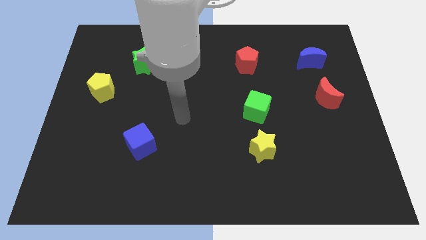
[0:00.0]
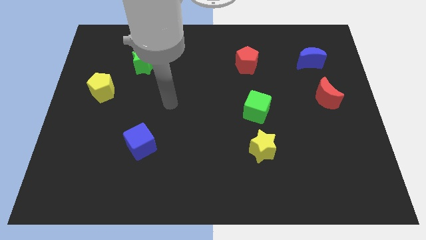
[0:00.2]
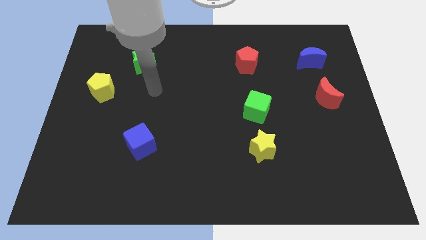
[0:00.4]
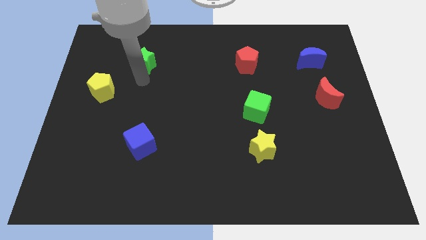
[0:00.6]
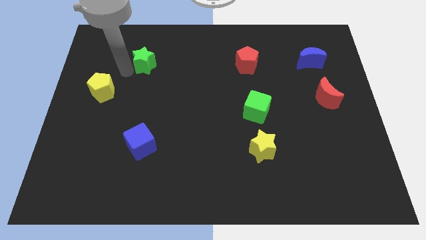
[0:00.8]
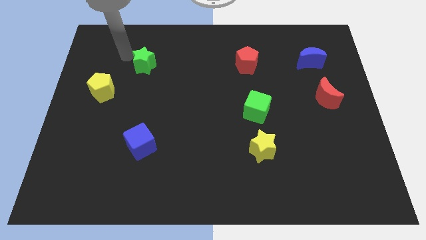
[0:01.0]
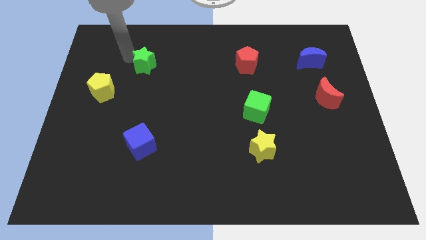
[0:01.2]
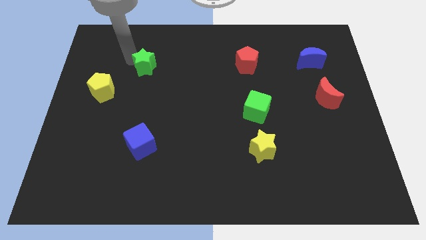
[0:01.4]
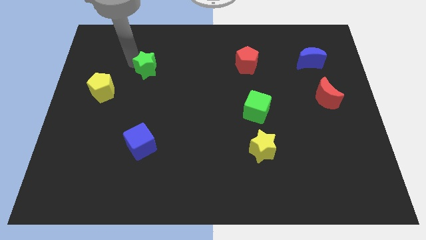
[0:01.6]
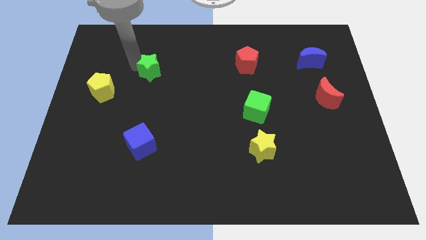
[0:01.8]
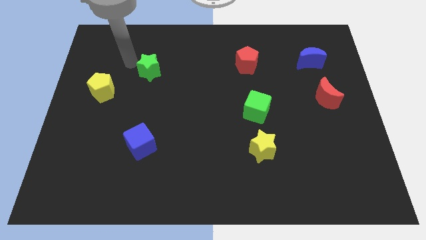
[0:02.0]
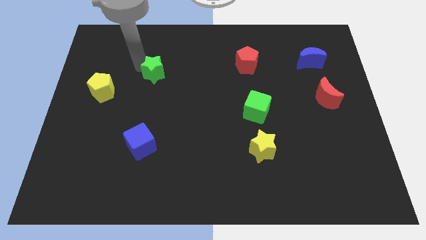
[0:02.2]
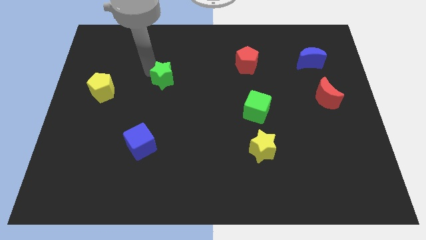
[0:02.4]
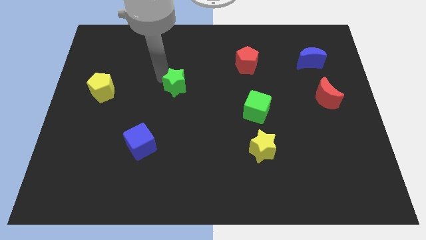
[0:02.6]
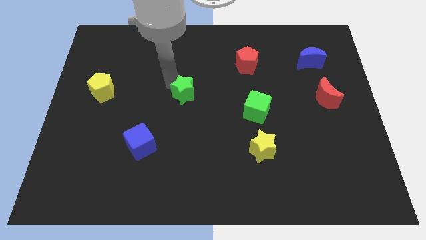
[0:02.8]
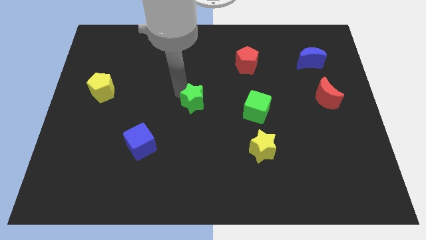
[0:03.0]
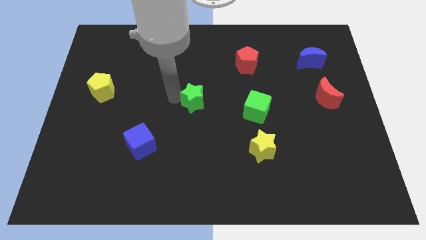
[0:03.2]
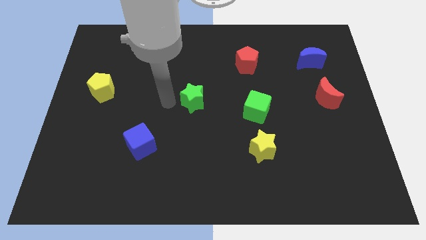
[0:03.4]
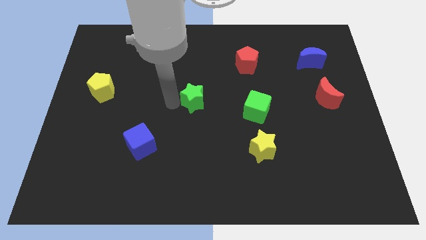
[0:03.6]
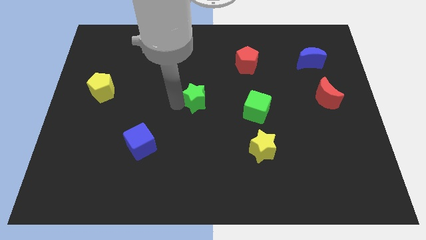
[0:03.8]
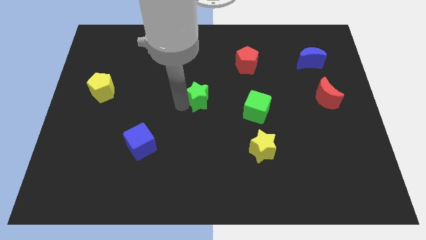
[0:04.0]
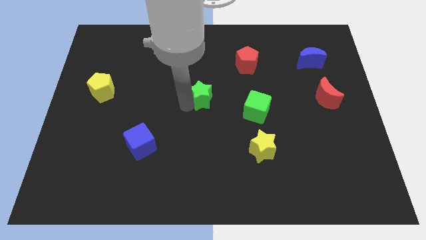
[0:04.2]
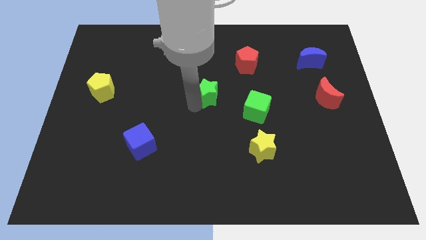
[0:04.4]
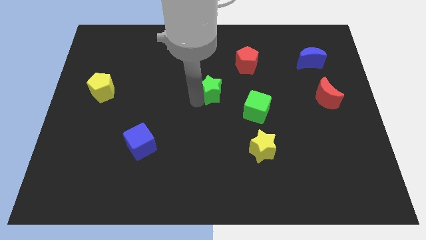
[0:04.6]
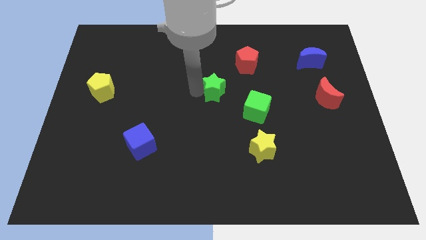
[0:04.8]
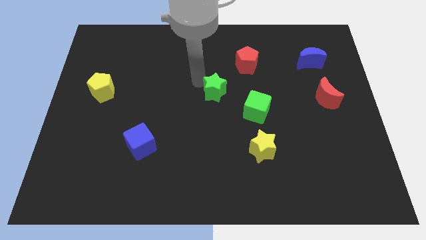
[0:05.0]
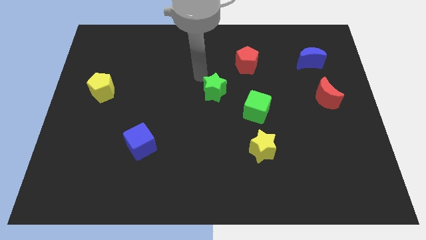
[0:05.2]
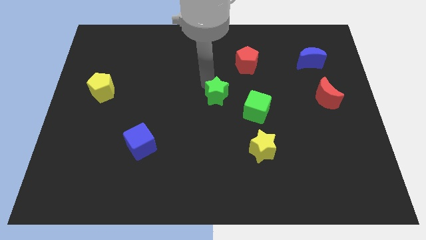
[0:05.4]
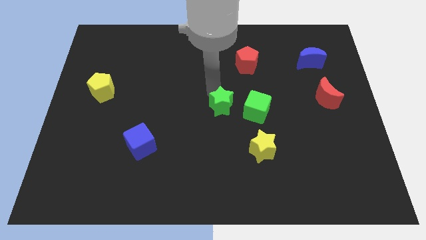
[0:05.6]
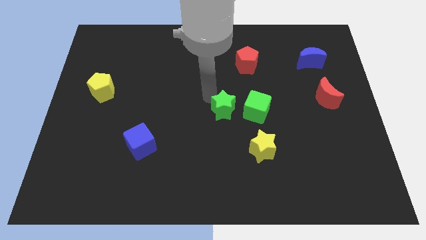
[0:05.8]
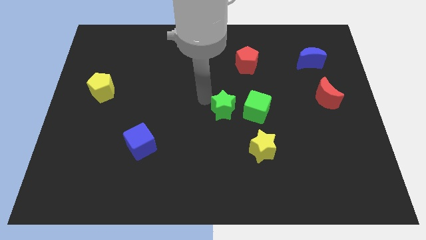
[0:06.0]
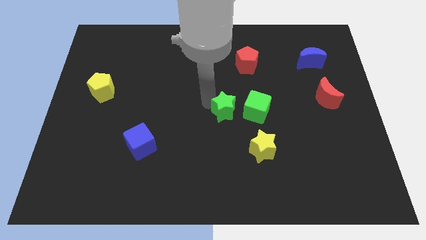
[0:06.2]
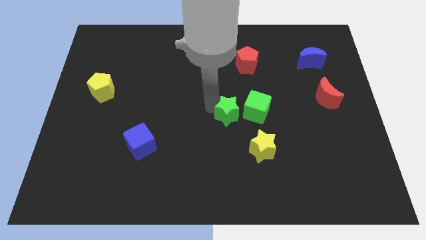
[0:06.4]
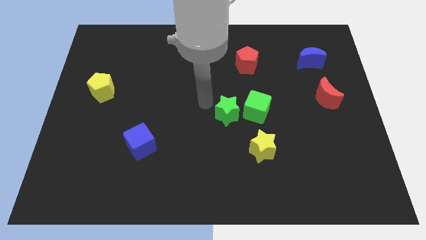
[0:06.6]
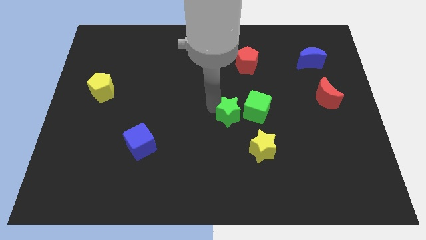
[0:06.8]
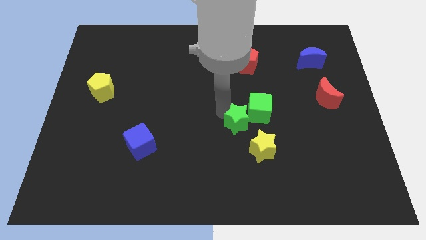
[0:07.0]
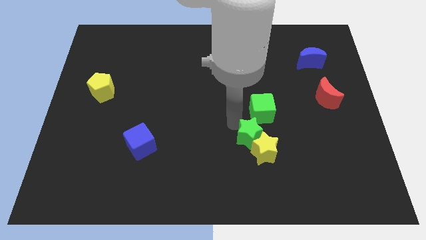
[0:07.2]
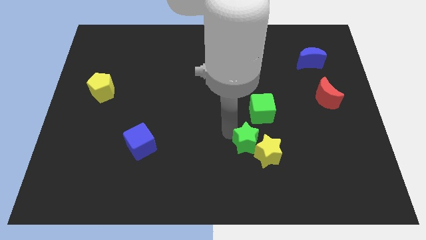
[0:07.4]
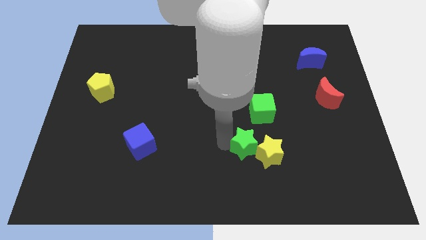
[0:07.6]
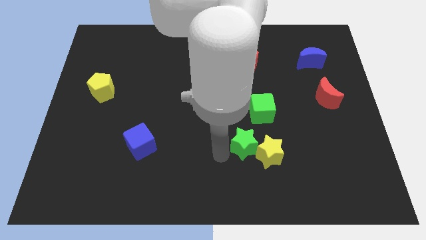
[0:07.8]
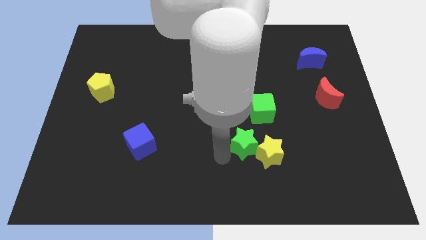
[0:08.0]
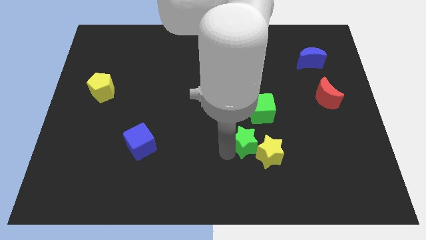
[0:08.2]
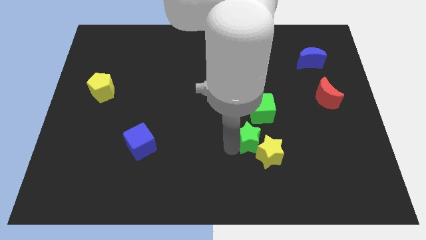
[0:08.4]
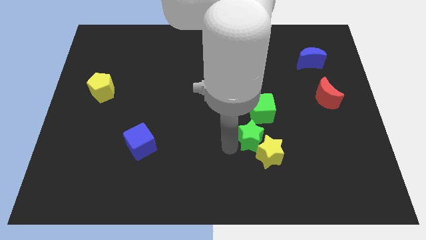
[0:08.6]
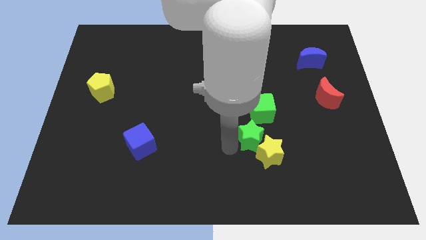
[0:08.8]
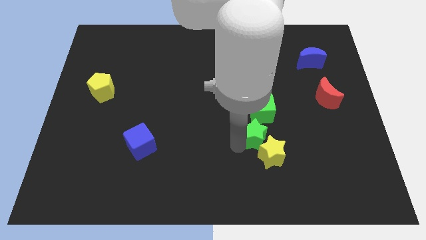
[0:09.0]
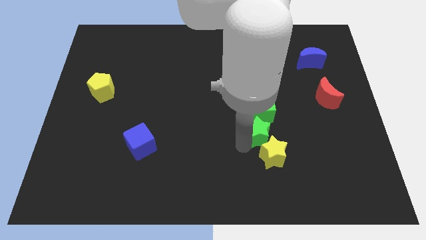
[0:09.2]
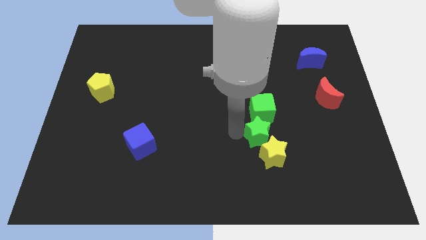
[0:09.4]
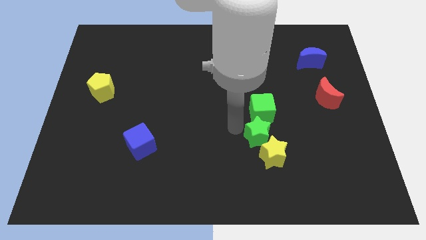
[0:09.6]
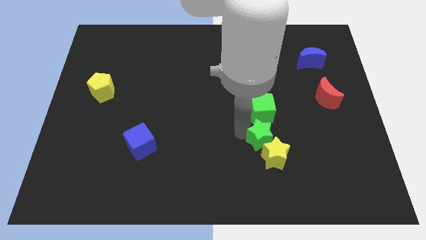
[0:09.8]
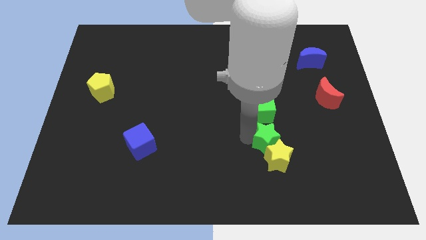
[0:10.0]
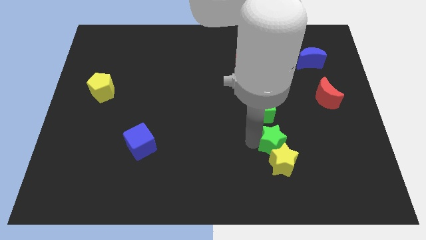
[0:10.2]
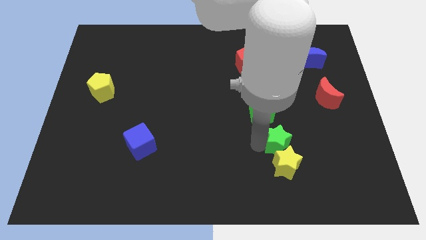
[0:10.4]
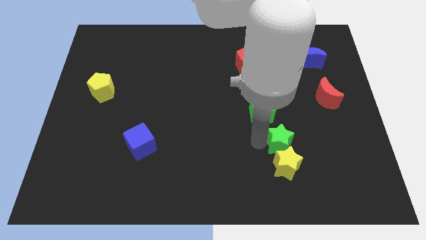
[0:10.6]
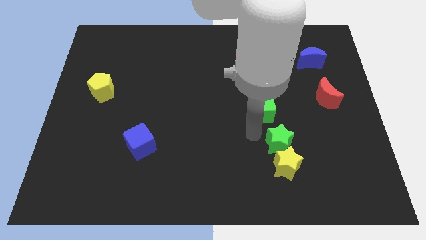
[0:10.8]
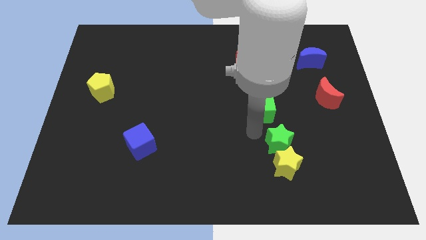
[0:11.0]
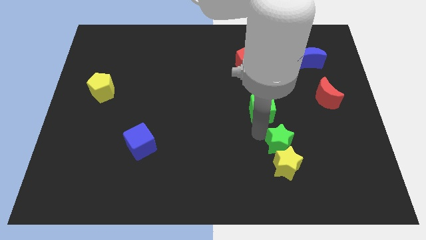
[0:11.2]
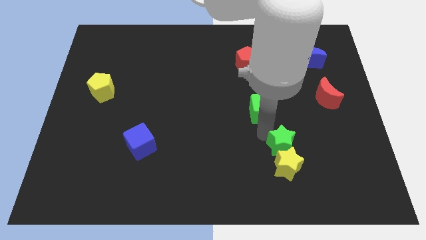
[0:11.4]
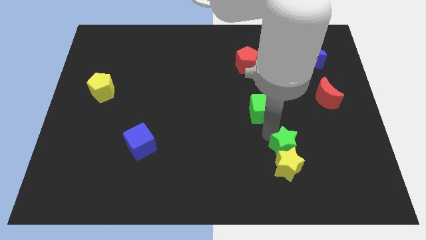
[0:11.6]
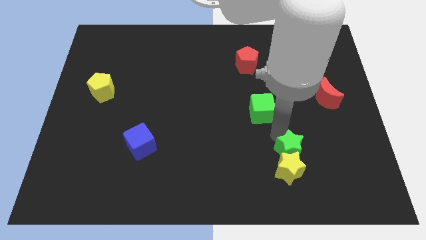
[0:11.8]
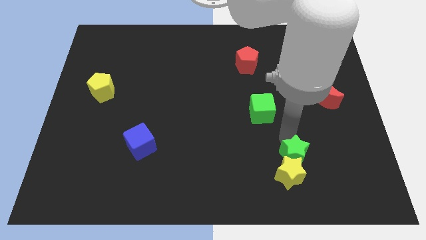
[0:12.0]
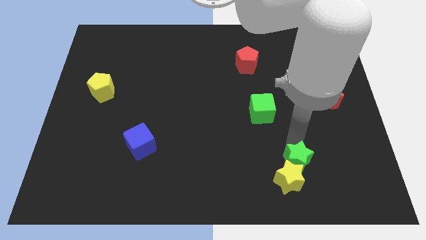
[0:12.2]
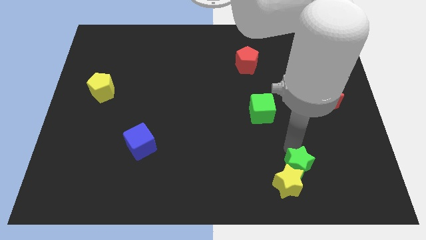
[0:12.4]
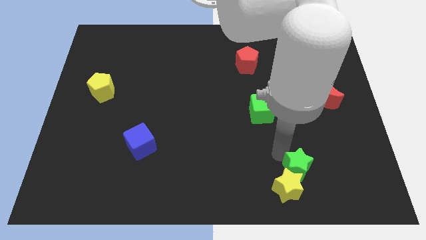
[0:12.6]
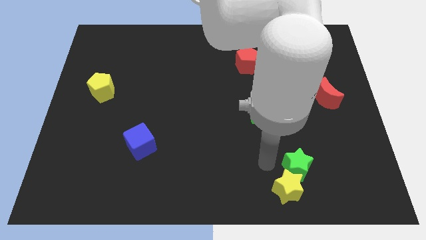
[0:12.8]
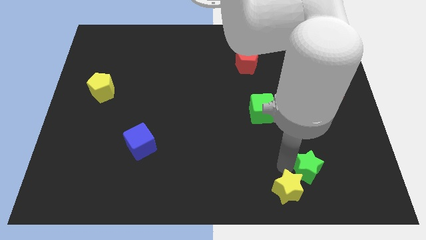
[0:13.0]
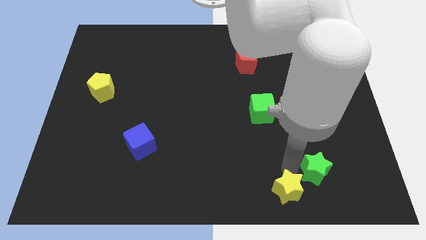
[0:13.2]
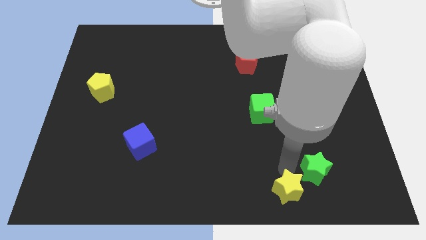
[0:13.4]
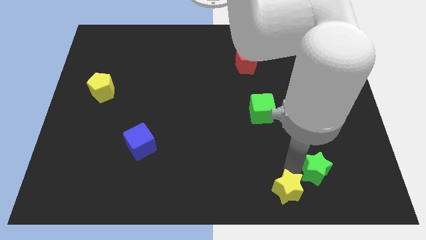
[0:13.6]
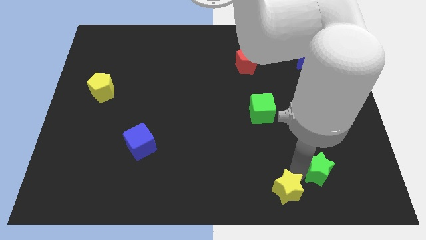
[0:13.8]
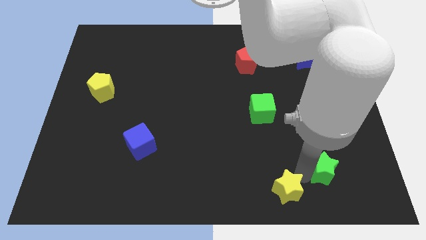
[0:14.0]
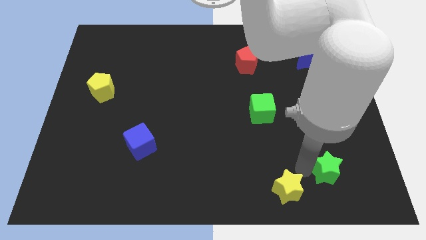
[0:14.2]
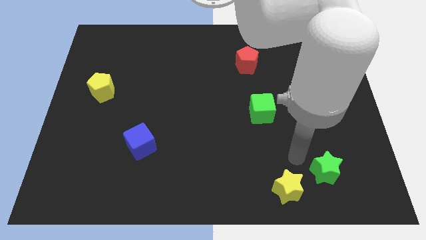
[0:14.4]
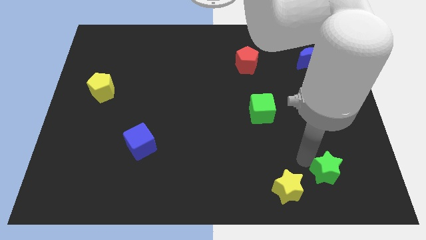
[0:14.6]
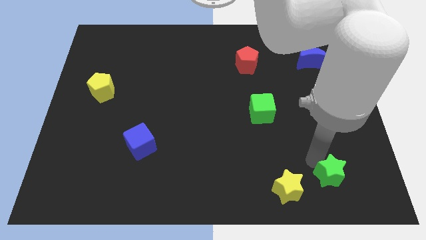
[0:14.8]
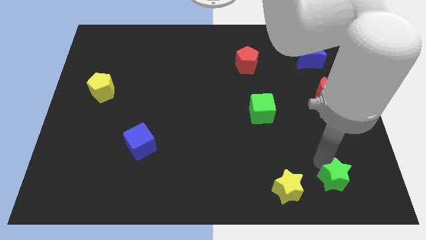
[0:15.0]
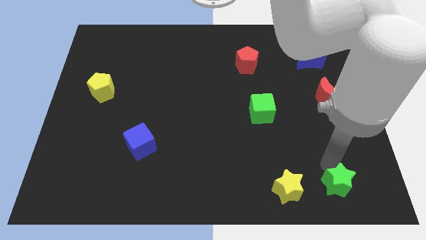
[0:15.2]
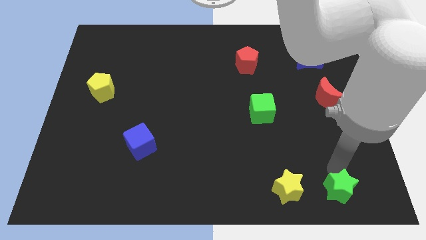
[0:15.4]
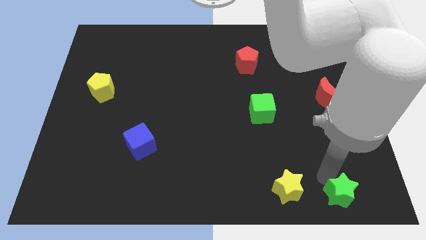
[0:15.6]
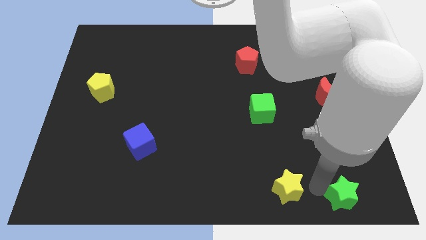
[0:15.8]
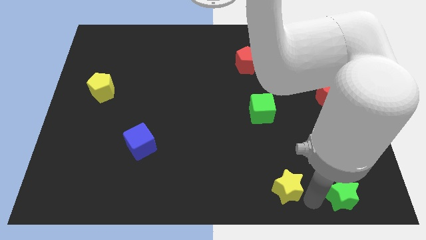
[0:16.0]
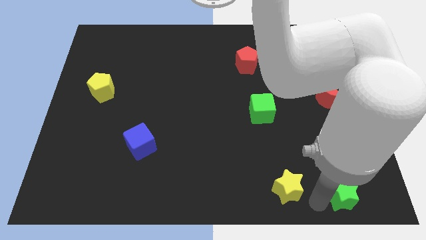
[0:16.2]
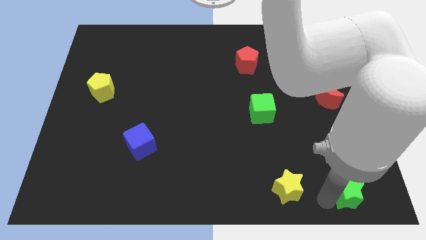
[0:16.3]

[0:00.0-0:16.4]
slide the green star to the bottom right of the board
